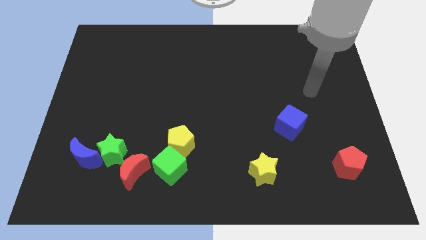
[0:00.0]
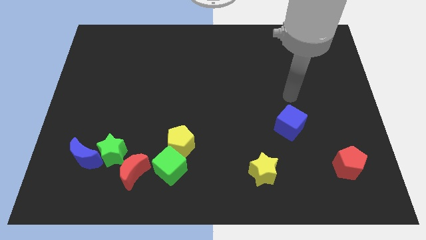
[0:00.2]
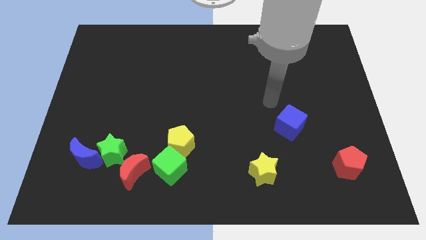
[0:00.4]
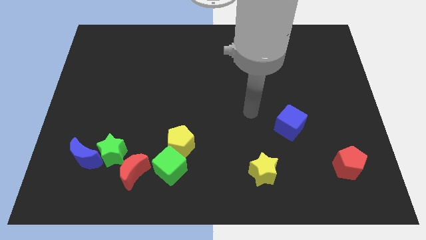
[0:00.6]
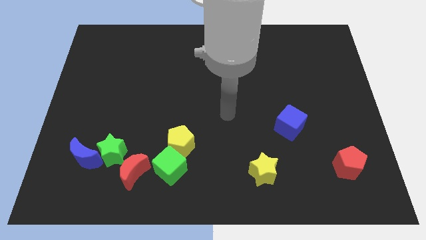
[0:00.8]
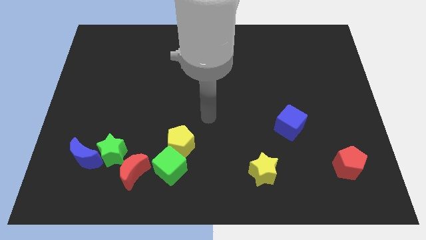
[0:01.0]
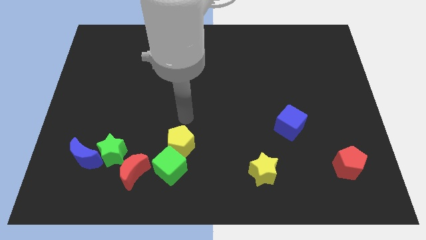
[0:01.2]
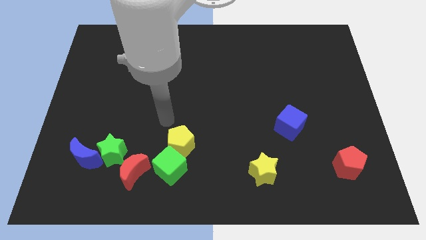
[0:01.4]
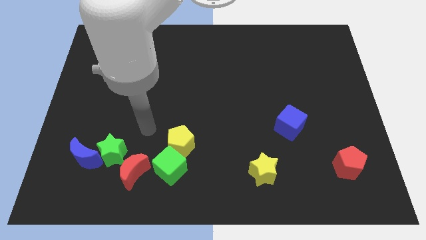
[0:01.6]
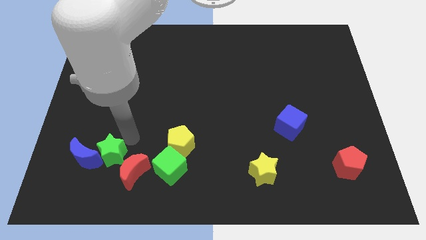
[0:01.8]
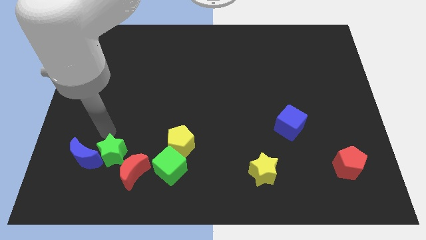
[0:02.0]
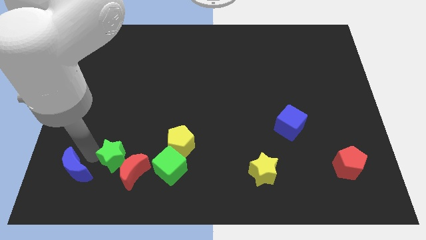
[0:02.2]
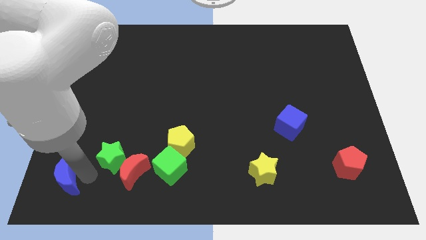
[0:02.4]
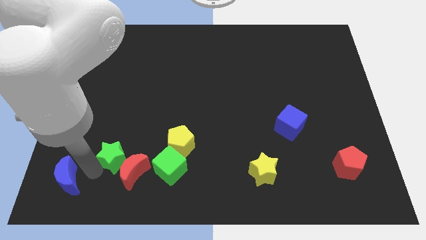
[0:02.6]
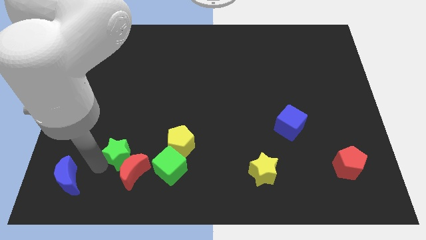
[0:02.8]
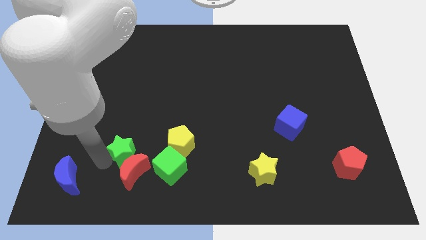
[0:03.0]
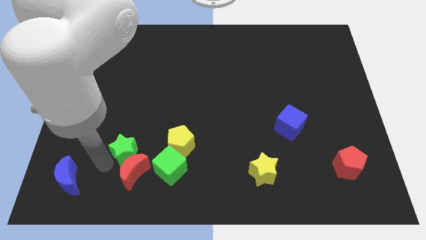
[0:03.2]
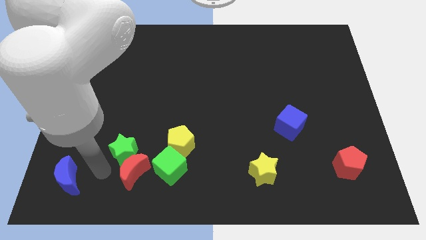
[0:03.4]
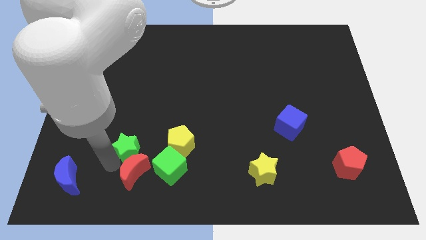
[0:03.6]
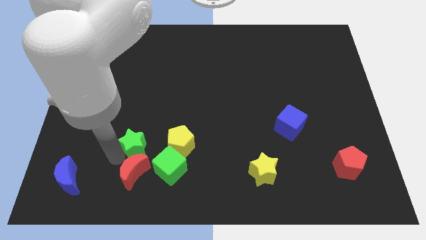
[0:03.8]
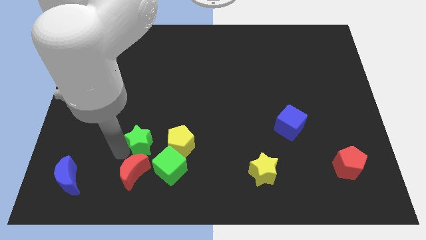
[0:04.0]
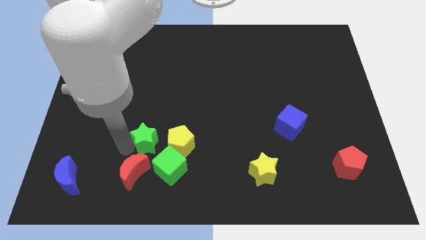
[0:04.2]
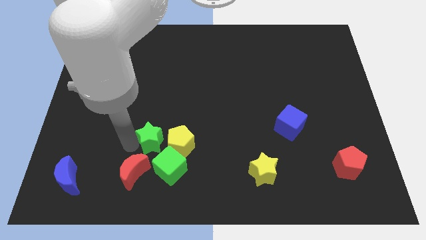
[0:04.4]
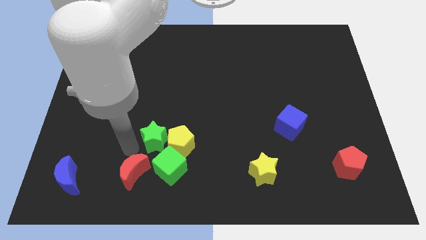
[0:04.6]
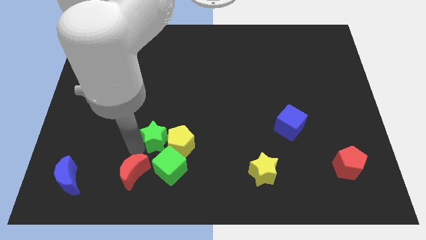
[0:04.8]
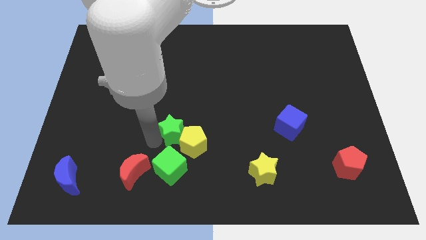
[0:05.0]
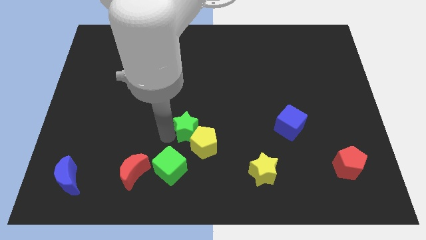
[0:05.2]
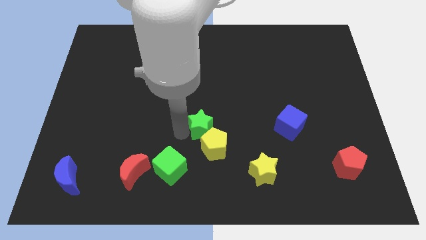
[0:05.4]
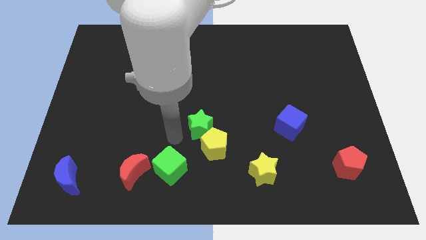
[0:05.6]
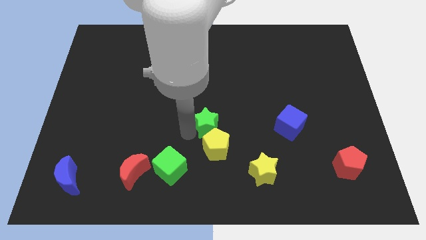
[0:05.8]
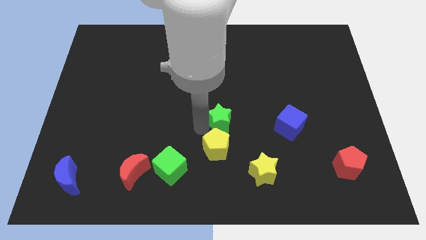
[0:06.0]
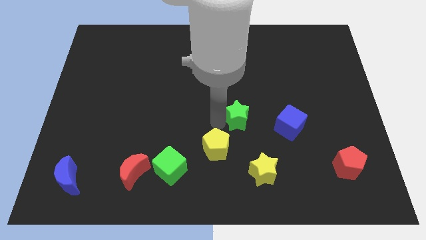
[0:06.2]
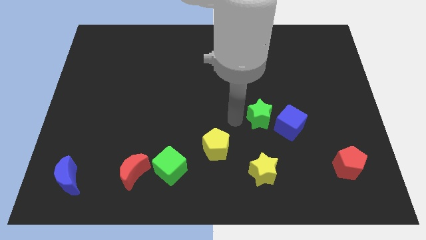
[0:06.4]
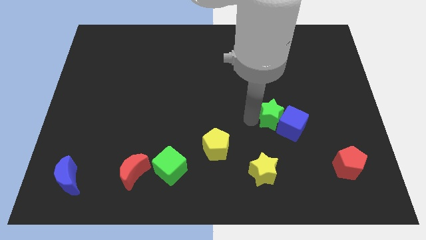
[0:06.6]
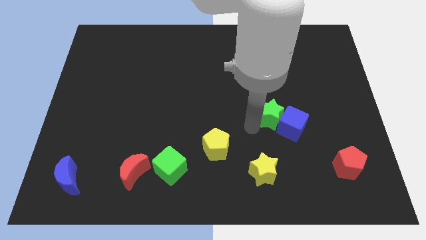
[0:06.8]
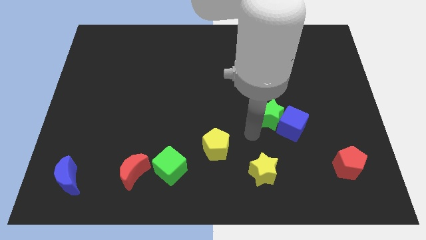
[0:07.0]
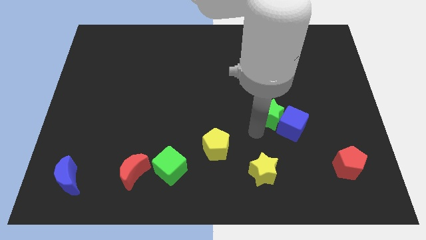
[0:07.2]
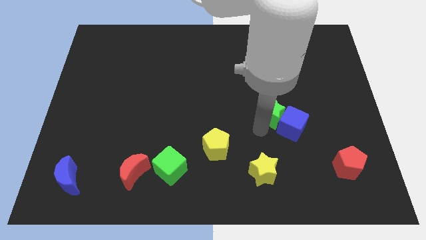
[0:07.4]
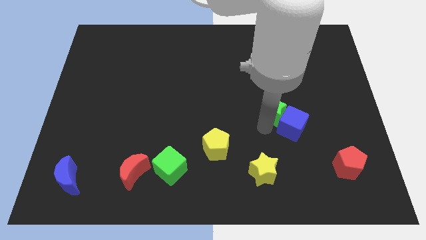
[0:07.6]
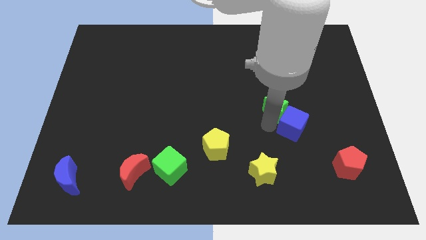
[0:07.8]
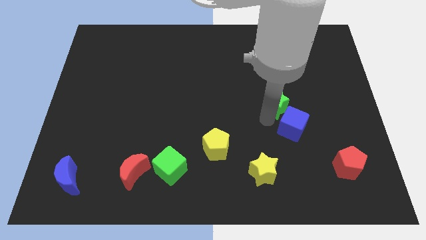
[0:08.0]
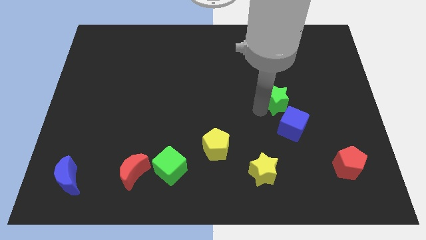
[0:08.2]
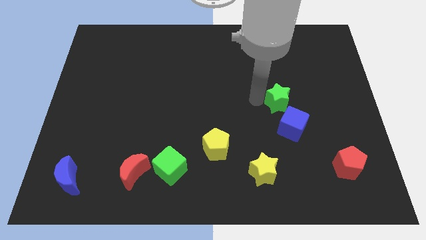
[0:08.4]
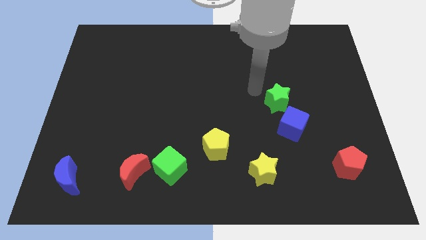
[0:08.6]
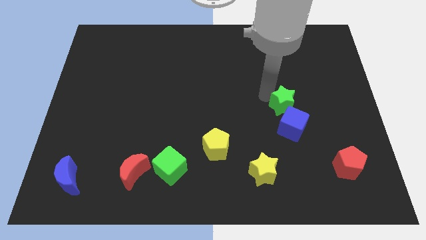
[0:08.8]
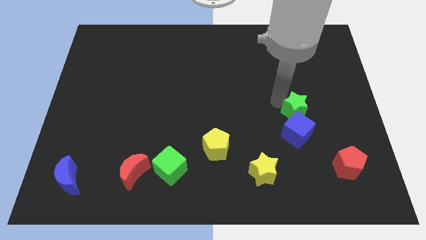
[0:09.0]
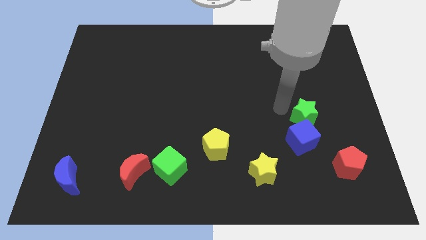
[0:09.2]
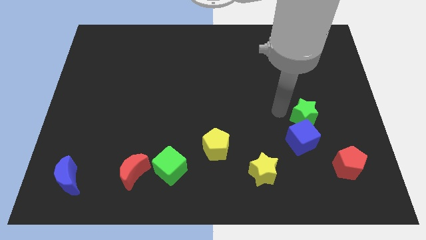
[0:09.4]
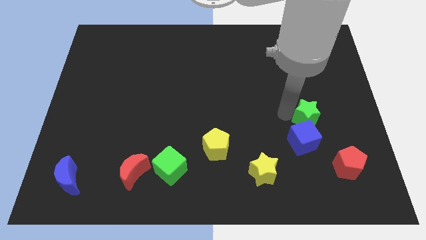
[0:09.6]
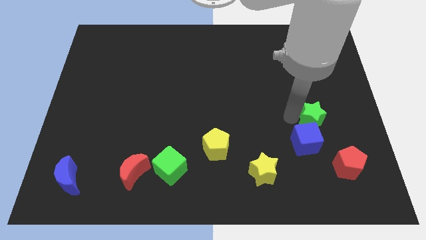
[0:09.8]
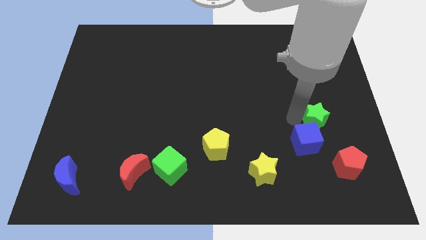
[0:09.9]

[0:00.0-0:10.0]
slide the green star to the top of the red pentagon

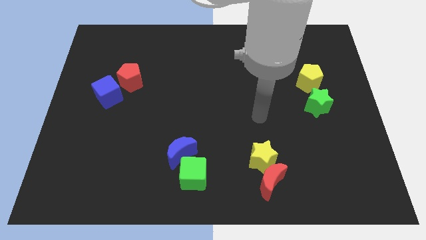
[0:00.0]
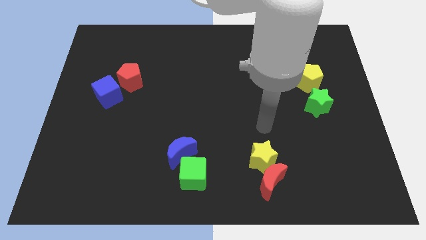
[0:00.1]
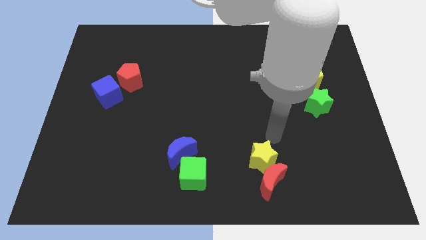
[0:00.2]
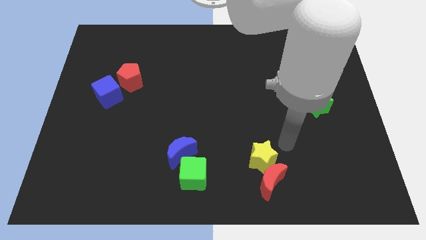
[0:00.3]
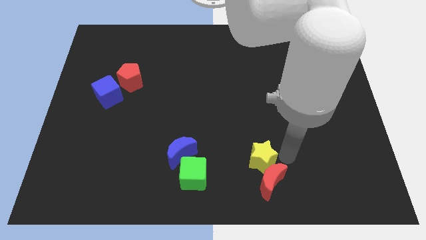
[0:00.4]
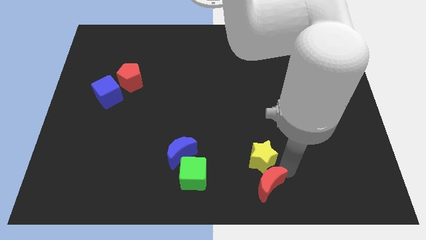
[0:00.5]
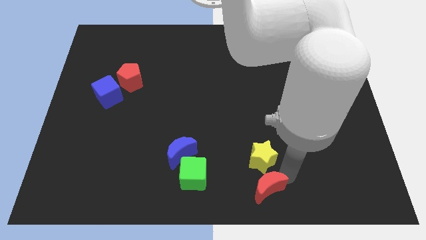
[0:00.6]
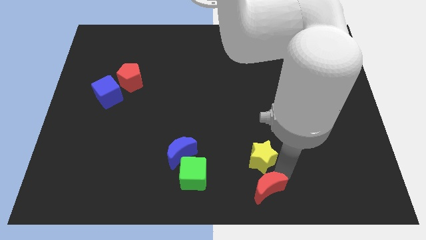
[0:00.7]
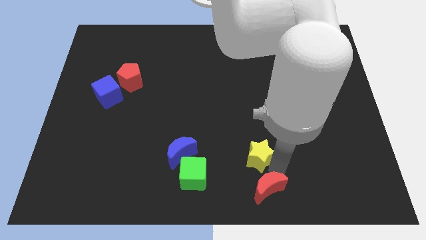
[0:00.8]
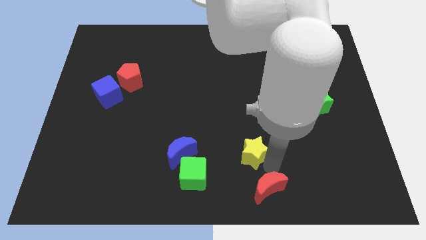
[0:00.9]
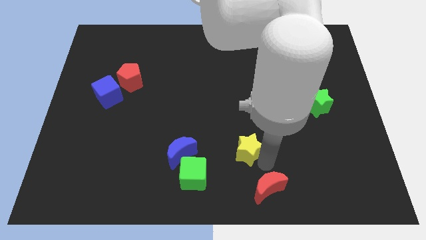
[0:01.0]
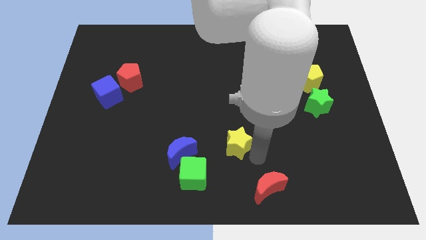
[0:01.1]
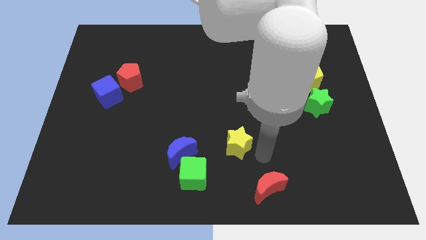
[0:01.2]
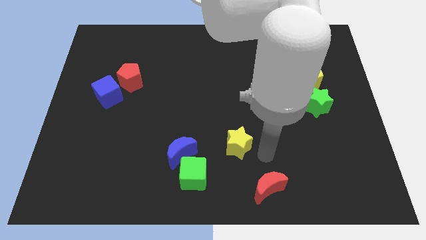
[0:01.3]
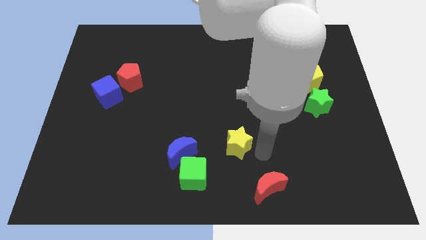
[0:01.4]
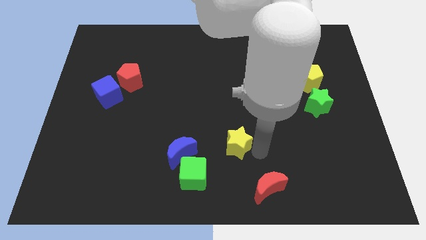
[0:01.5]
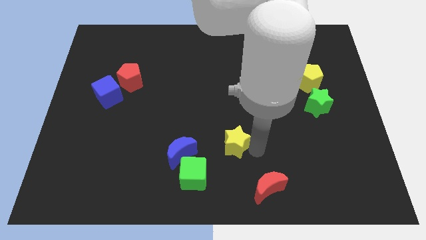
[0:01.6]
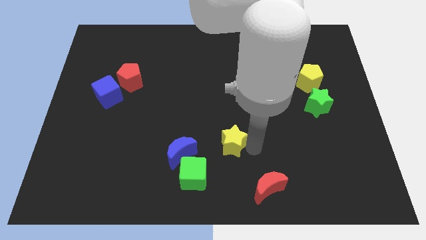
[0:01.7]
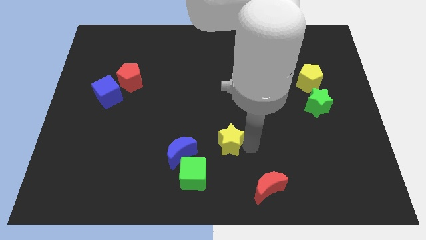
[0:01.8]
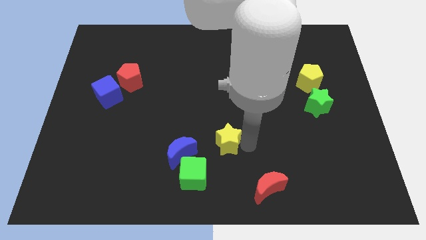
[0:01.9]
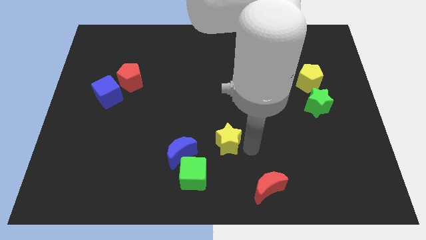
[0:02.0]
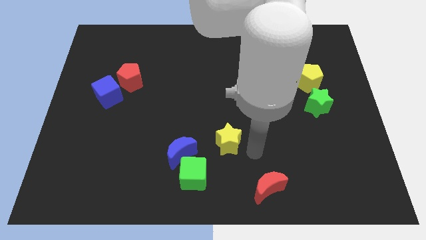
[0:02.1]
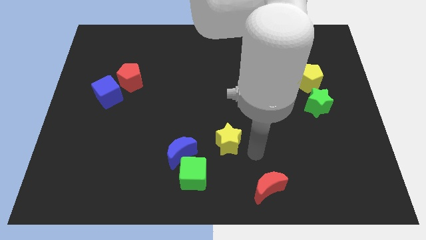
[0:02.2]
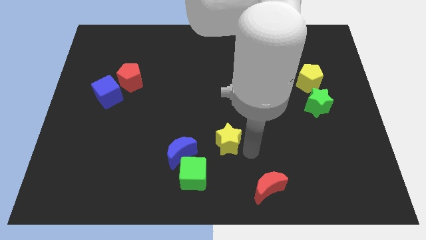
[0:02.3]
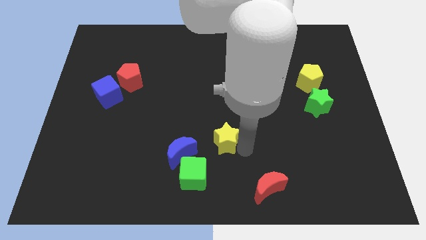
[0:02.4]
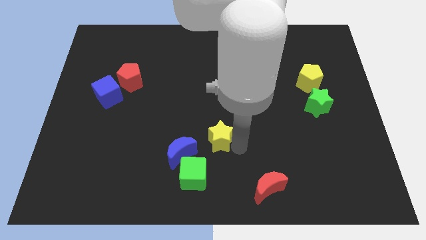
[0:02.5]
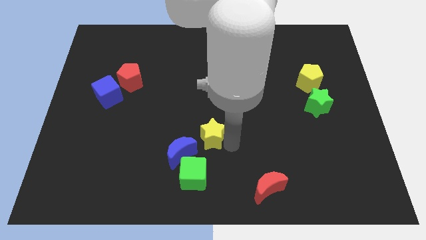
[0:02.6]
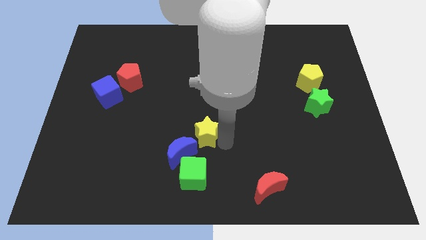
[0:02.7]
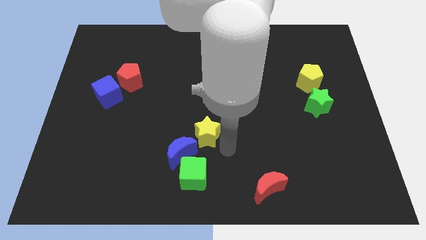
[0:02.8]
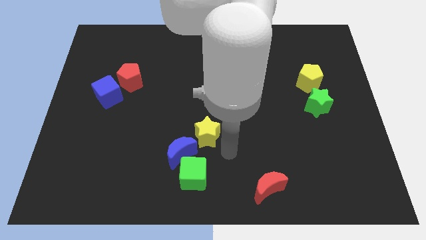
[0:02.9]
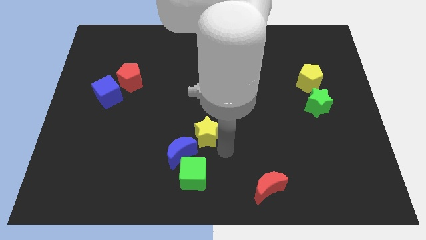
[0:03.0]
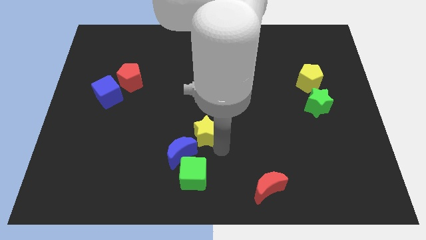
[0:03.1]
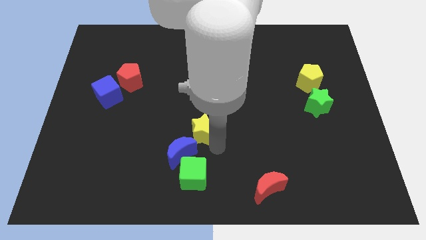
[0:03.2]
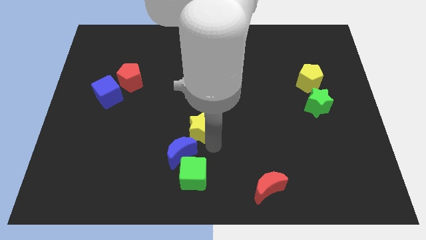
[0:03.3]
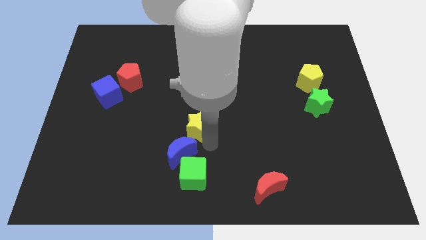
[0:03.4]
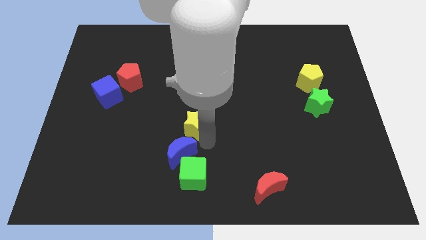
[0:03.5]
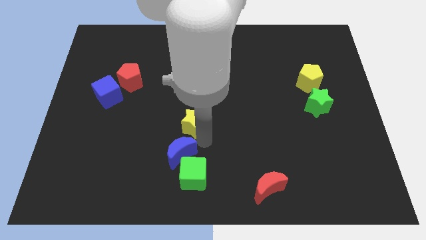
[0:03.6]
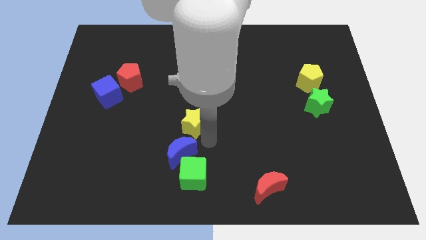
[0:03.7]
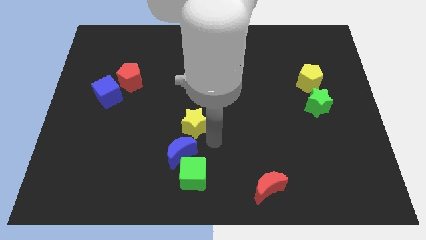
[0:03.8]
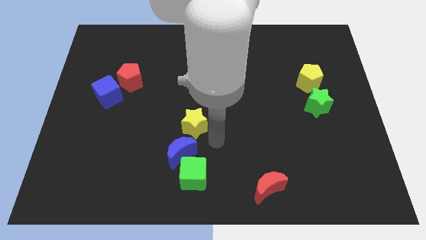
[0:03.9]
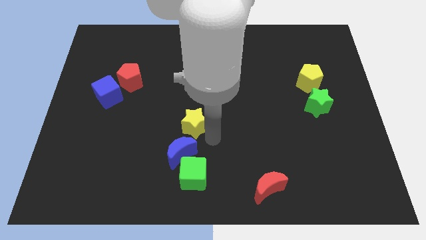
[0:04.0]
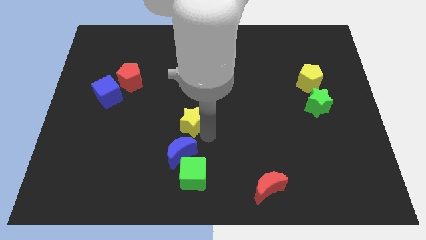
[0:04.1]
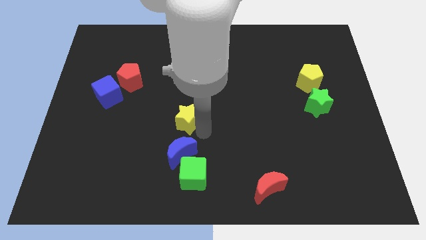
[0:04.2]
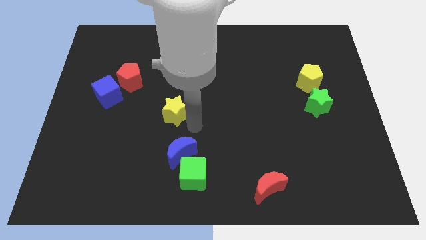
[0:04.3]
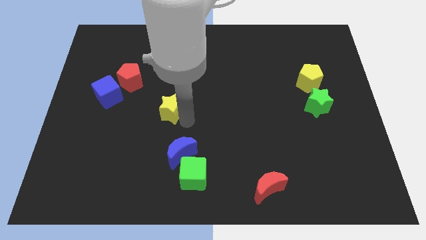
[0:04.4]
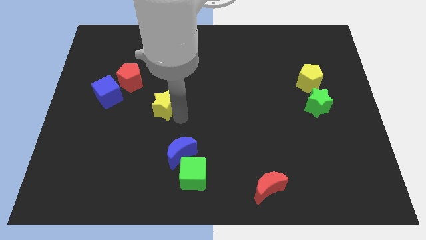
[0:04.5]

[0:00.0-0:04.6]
slide the yellow star to the bottom right of the red pentagon
